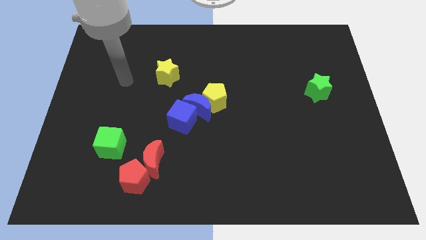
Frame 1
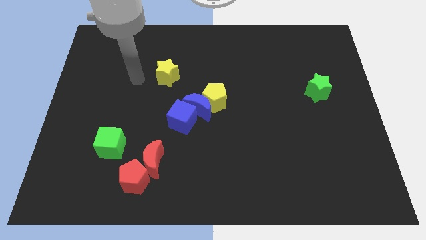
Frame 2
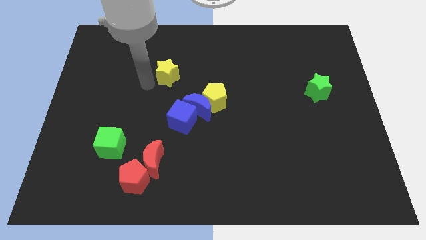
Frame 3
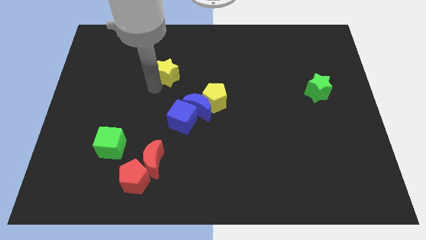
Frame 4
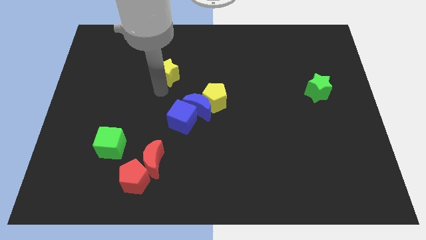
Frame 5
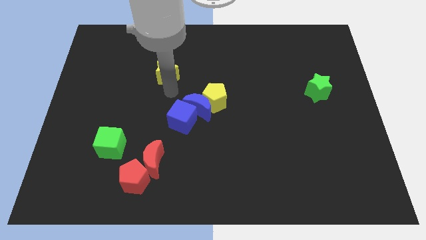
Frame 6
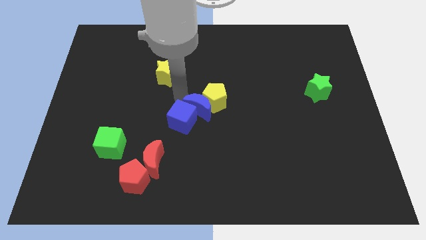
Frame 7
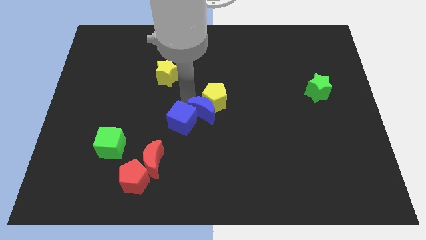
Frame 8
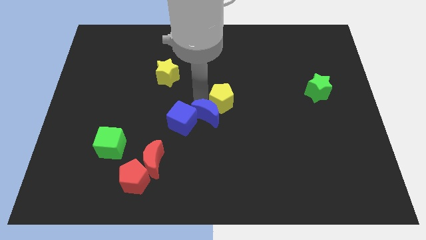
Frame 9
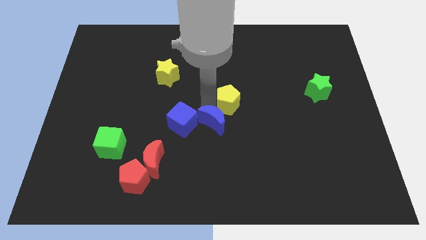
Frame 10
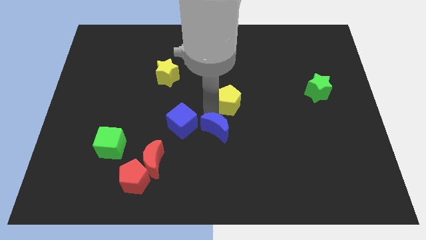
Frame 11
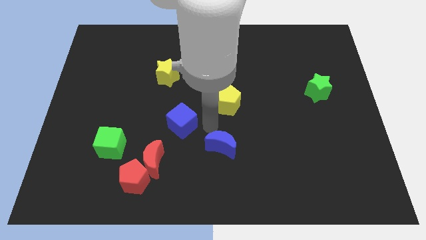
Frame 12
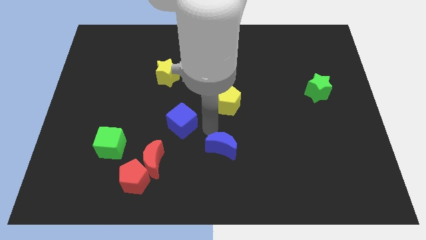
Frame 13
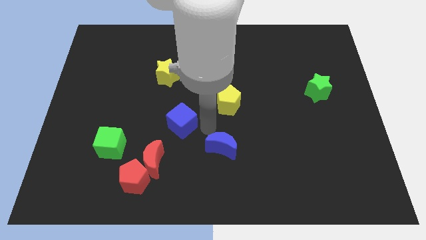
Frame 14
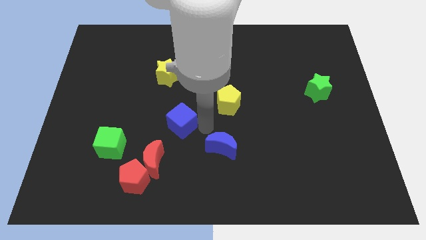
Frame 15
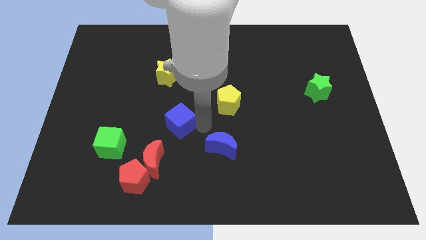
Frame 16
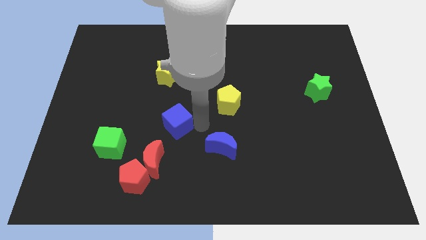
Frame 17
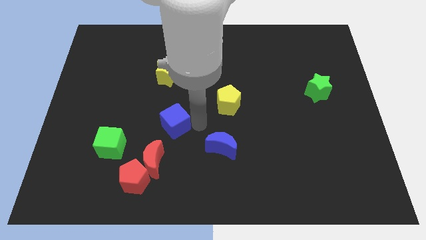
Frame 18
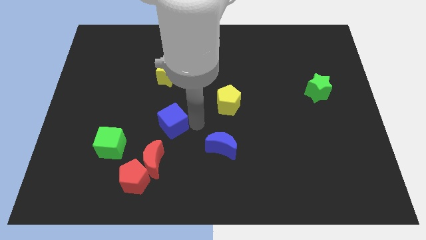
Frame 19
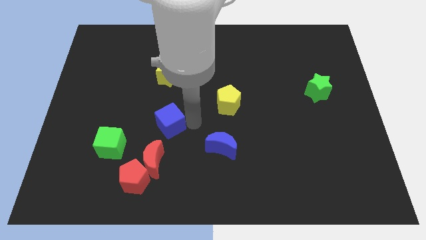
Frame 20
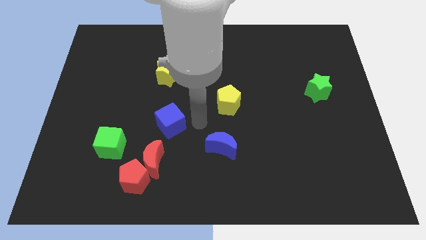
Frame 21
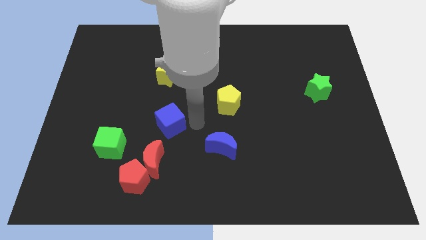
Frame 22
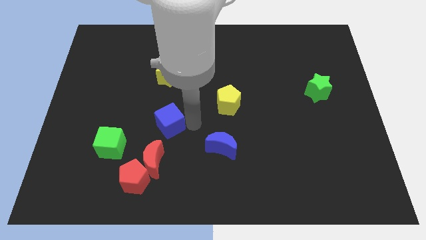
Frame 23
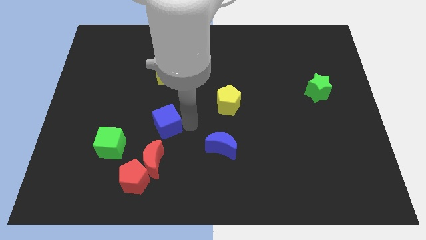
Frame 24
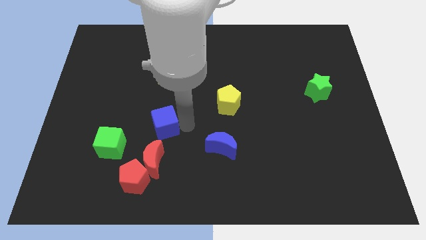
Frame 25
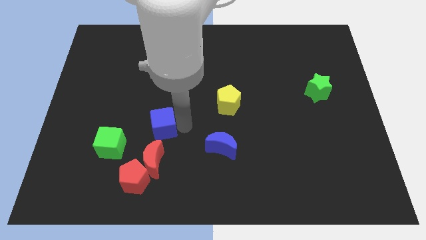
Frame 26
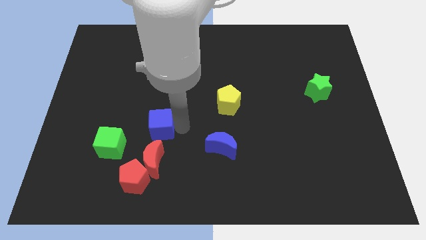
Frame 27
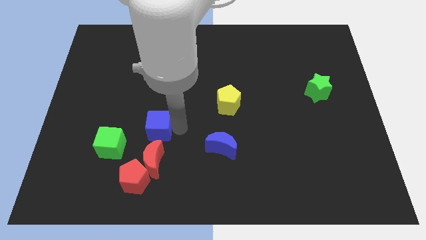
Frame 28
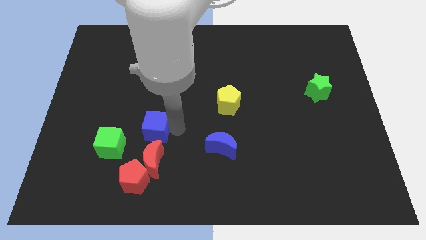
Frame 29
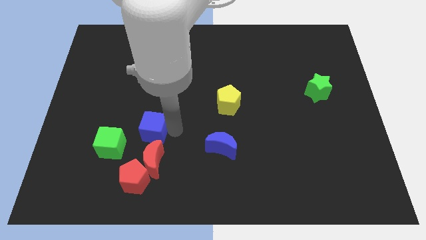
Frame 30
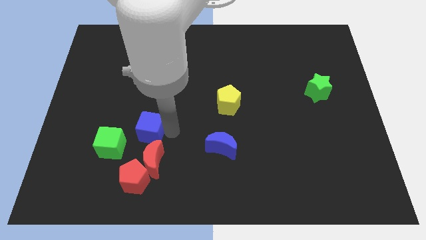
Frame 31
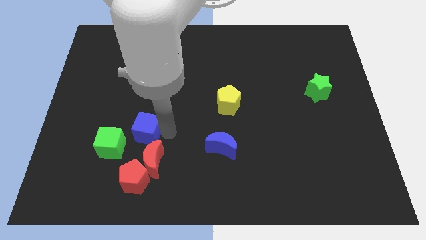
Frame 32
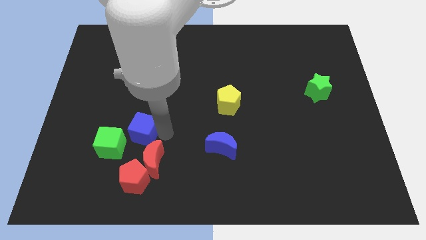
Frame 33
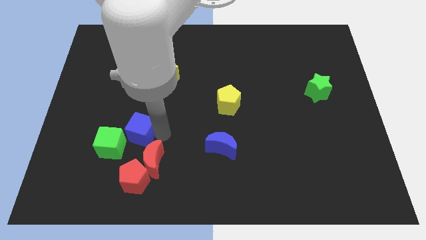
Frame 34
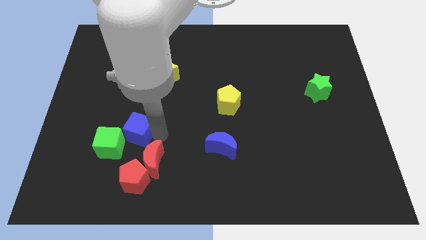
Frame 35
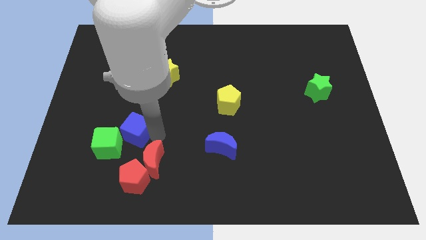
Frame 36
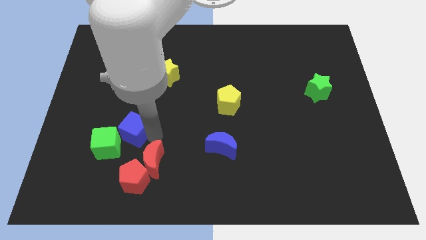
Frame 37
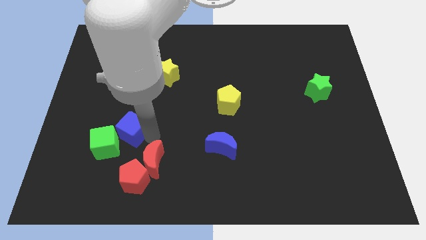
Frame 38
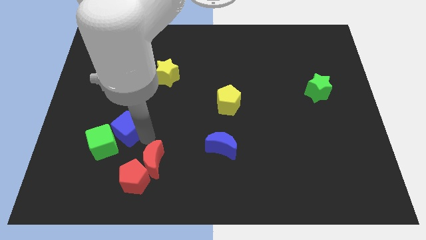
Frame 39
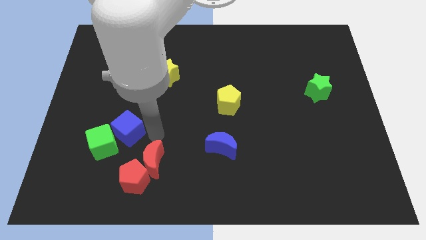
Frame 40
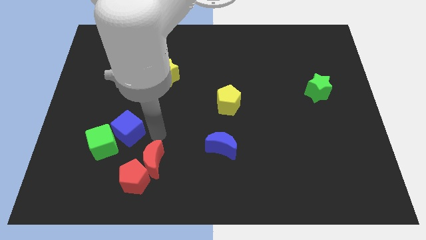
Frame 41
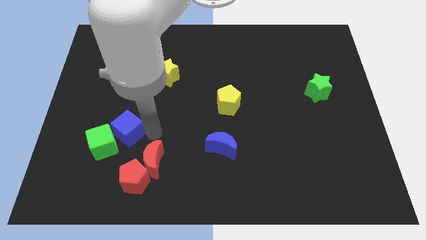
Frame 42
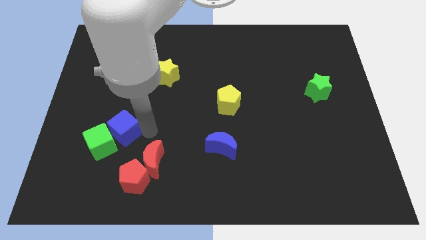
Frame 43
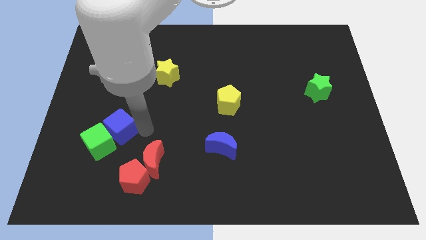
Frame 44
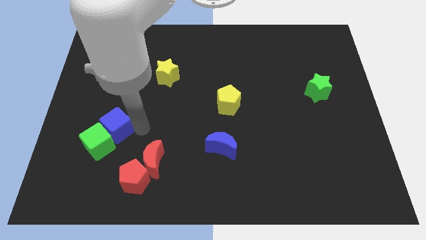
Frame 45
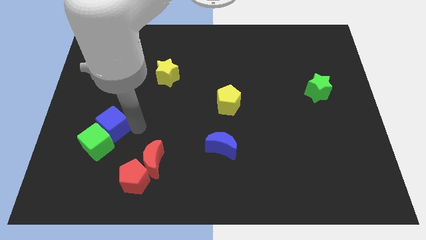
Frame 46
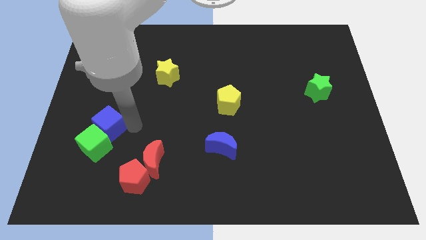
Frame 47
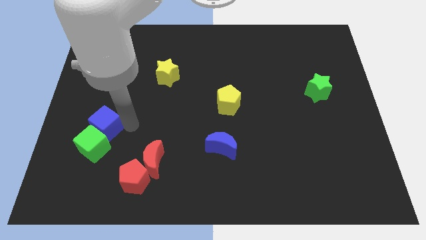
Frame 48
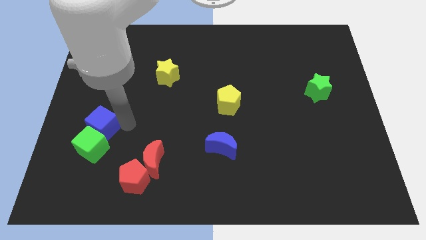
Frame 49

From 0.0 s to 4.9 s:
push the blue cube diagonally up and to the left of the green cube

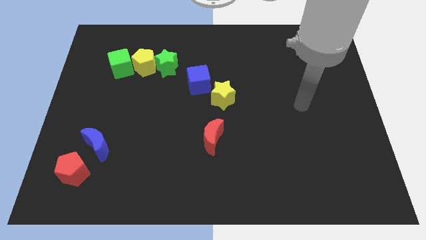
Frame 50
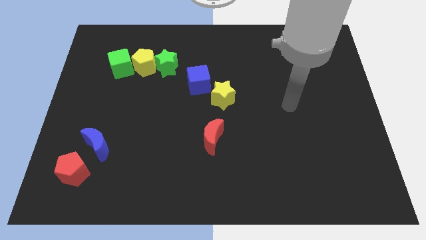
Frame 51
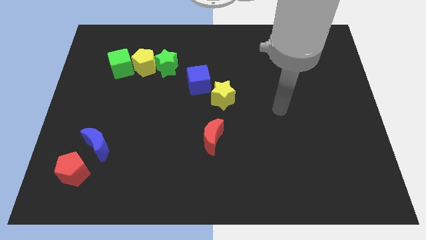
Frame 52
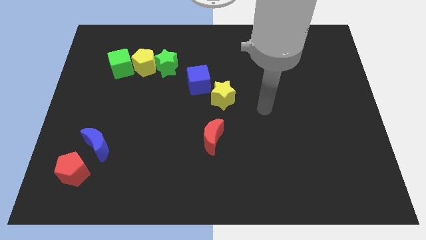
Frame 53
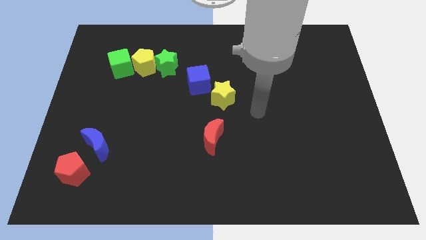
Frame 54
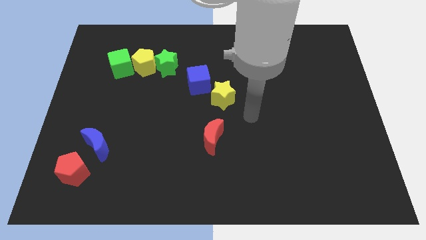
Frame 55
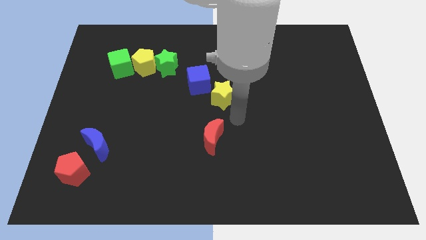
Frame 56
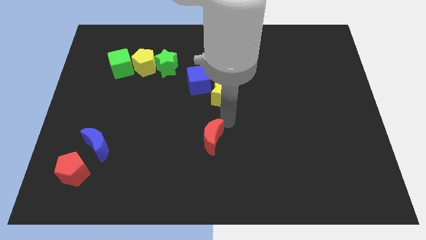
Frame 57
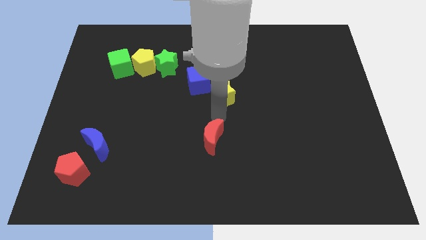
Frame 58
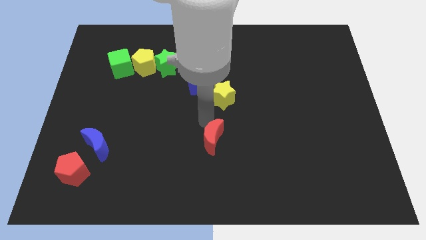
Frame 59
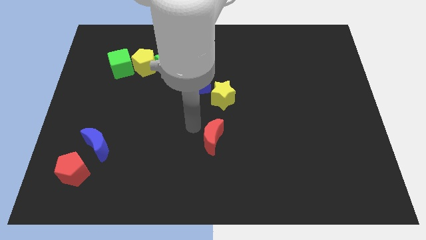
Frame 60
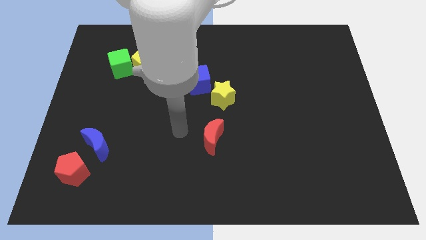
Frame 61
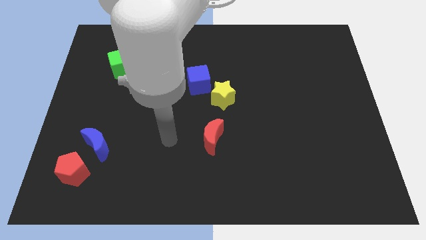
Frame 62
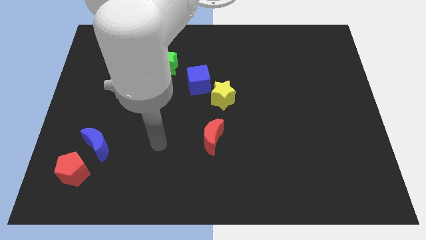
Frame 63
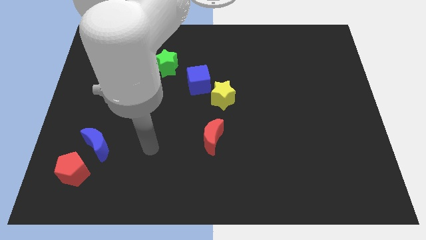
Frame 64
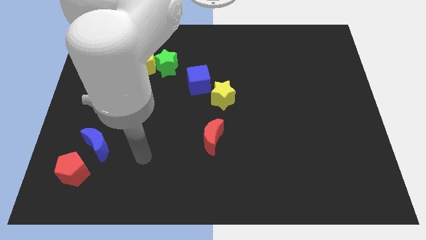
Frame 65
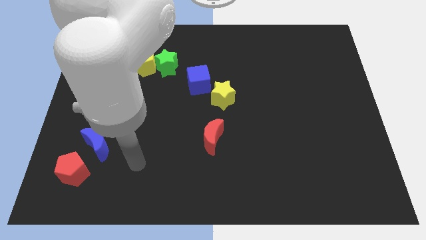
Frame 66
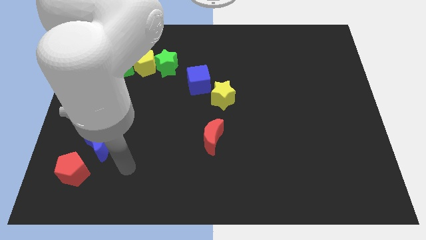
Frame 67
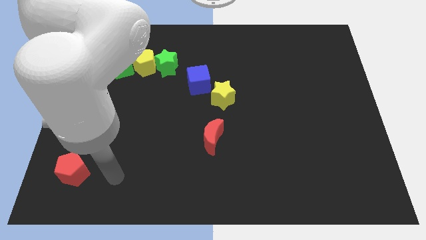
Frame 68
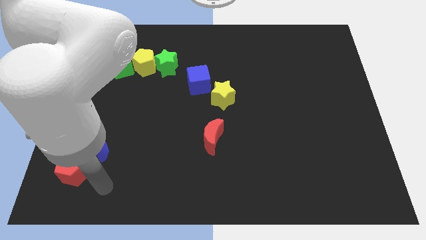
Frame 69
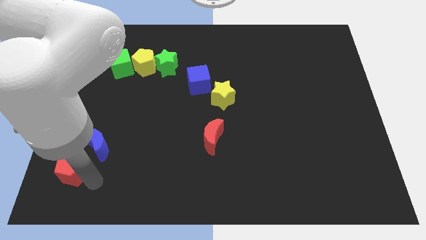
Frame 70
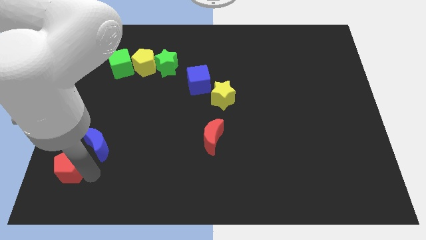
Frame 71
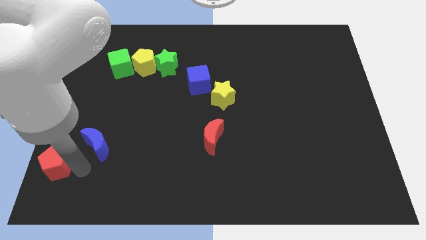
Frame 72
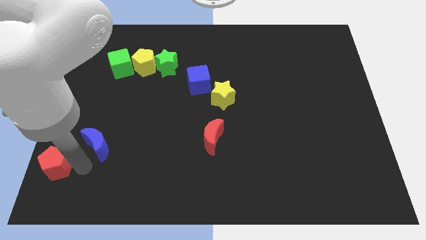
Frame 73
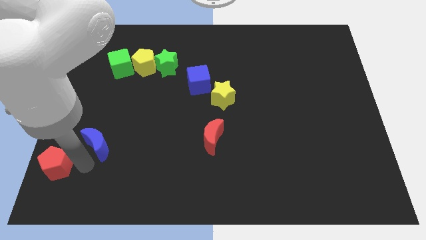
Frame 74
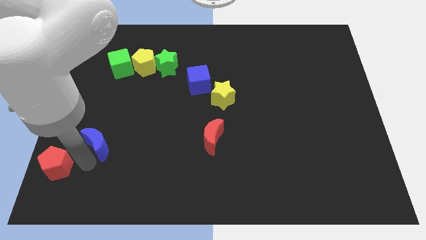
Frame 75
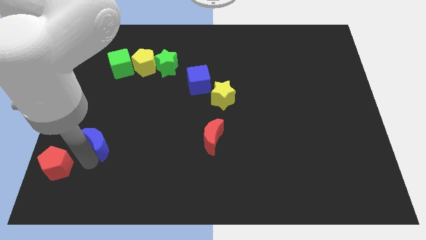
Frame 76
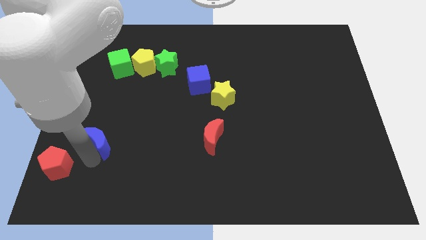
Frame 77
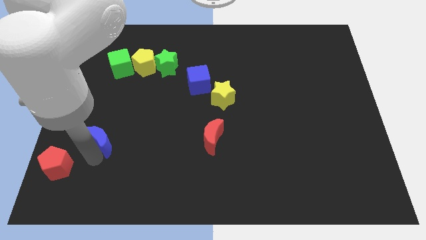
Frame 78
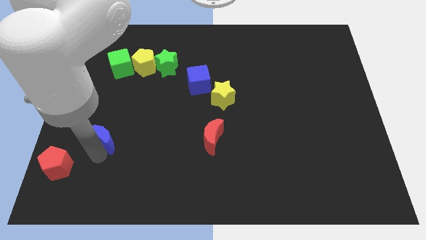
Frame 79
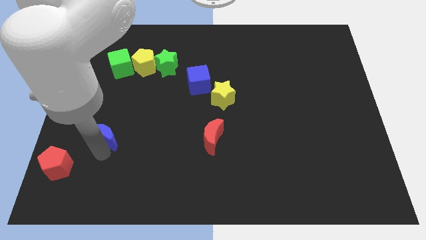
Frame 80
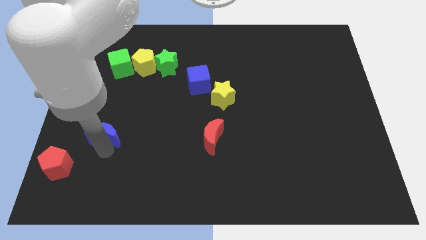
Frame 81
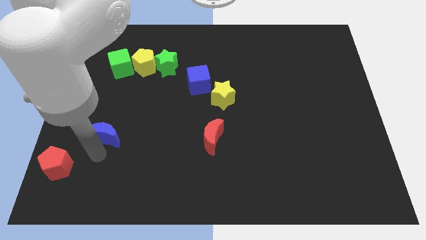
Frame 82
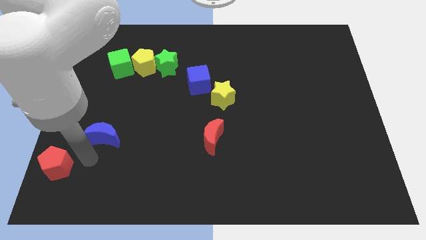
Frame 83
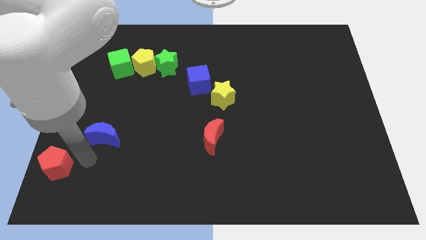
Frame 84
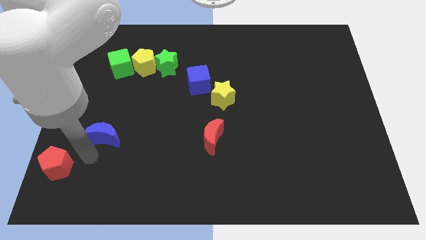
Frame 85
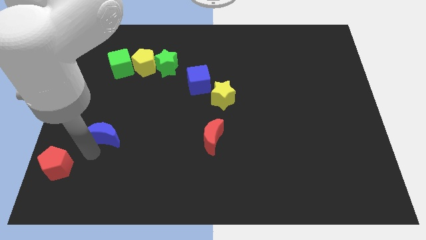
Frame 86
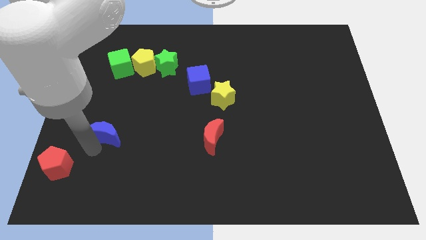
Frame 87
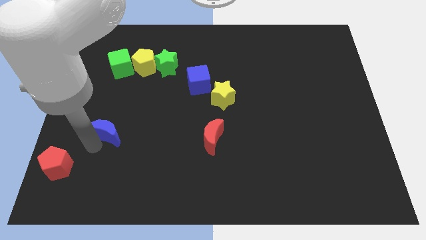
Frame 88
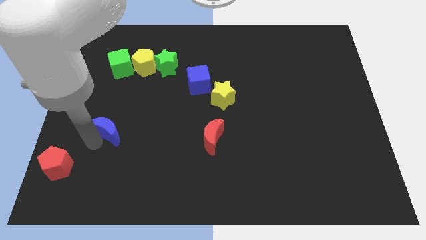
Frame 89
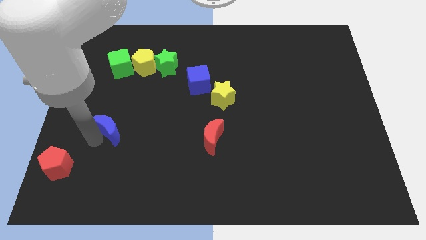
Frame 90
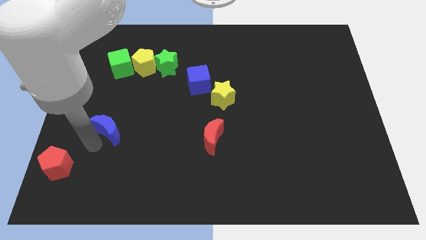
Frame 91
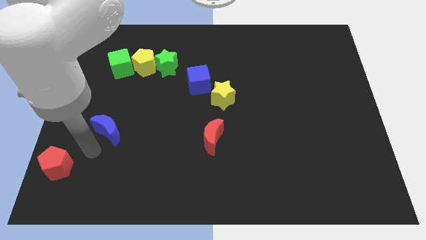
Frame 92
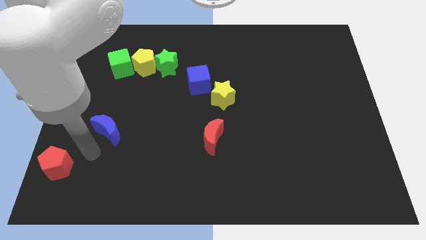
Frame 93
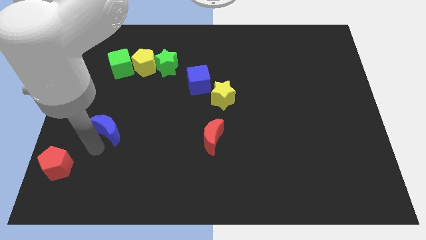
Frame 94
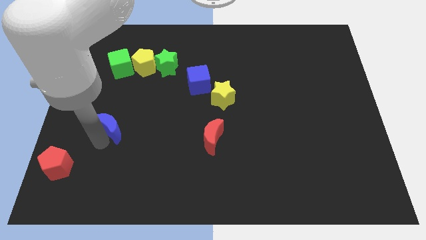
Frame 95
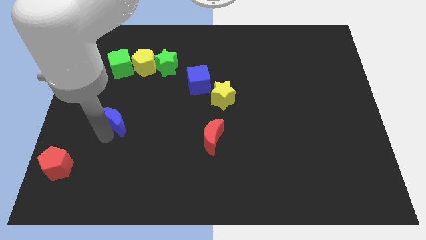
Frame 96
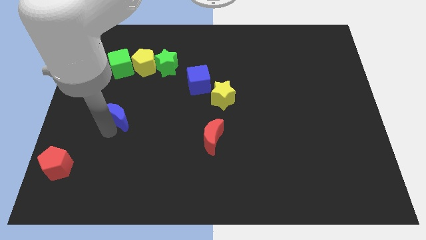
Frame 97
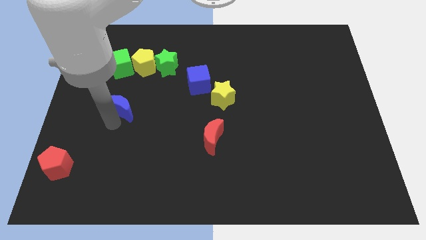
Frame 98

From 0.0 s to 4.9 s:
slide the blue moon to the bottom of the yellow pentagon
